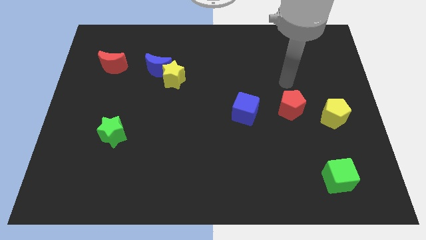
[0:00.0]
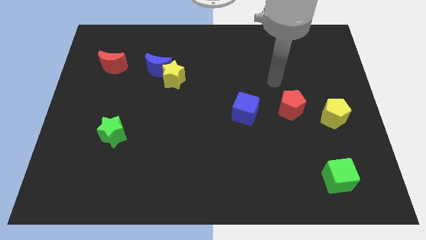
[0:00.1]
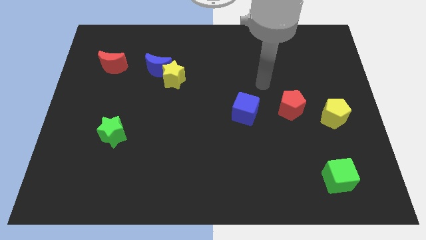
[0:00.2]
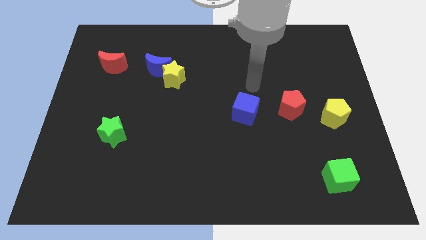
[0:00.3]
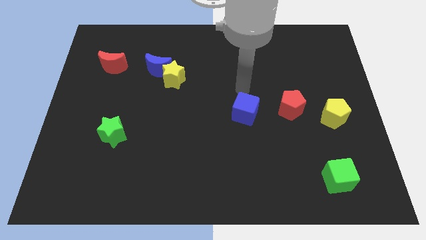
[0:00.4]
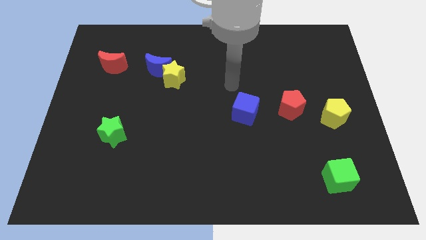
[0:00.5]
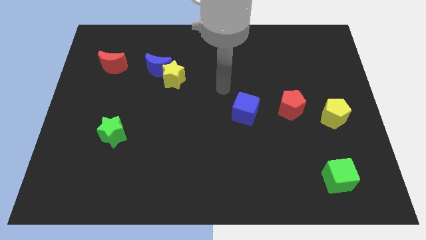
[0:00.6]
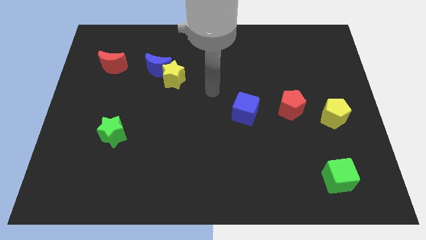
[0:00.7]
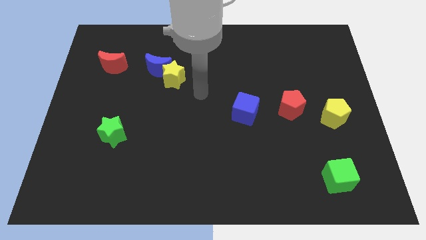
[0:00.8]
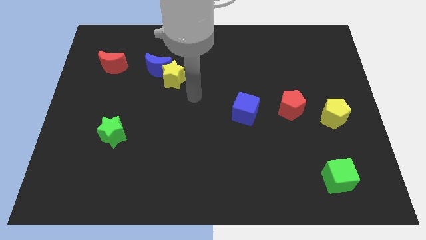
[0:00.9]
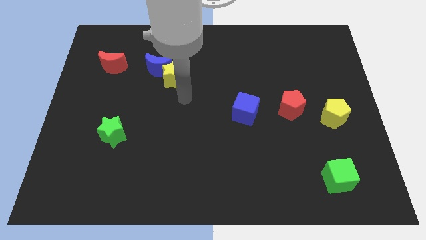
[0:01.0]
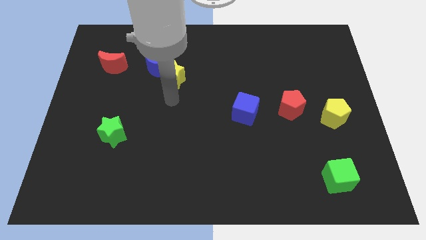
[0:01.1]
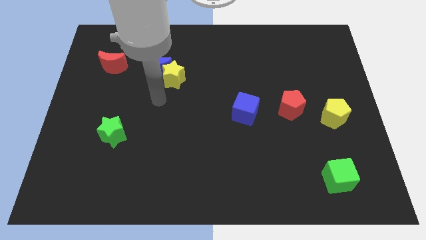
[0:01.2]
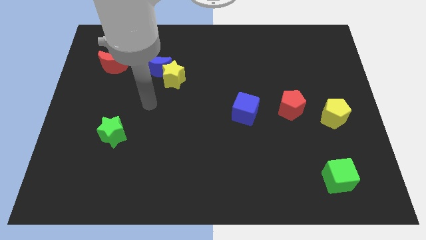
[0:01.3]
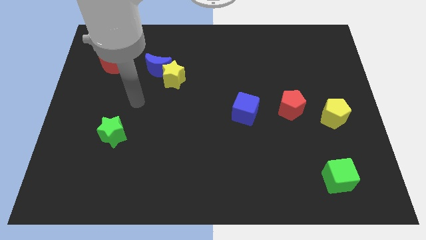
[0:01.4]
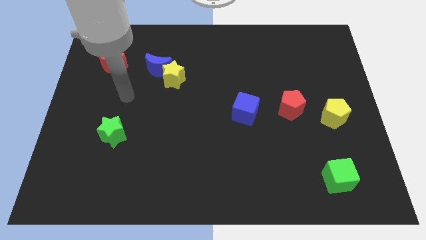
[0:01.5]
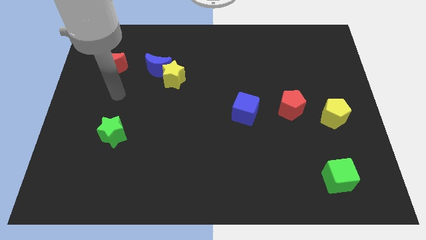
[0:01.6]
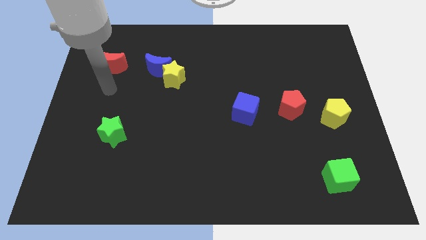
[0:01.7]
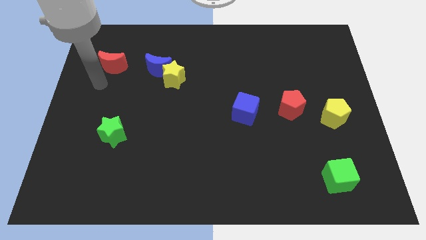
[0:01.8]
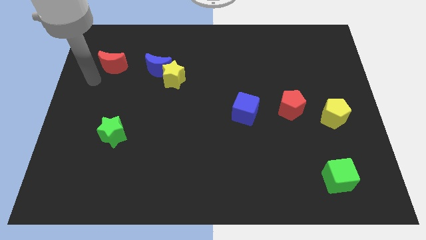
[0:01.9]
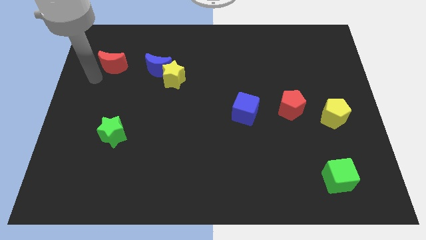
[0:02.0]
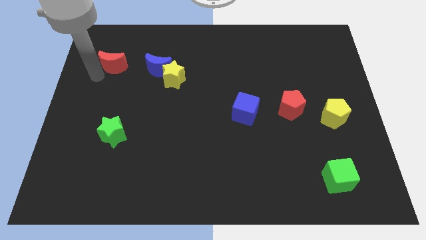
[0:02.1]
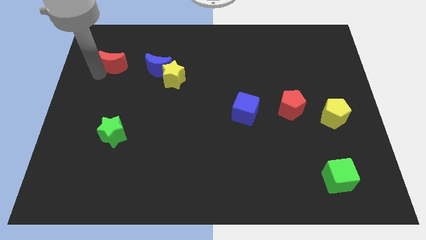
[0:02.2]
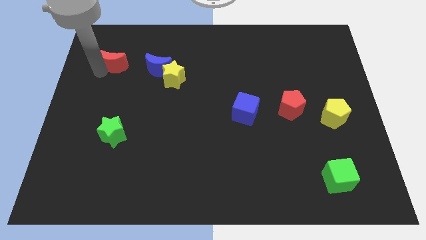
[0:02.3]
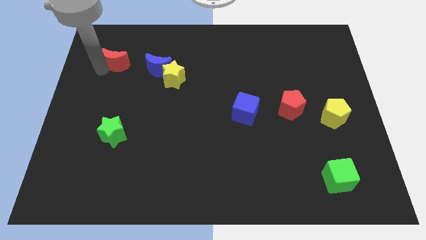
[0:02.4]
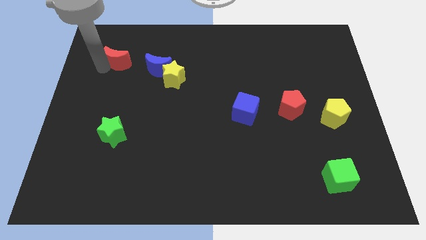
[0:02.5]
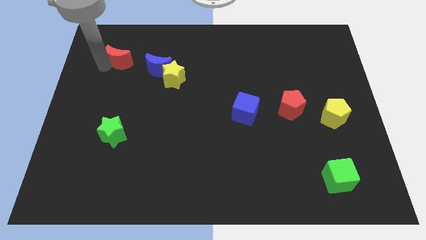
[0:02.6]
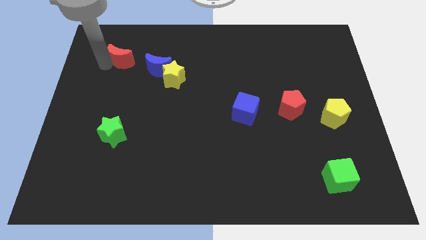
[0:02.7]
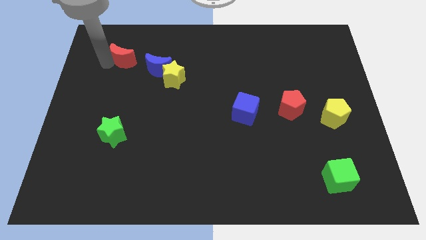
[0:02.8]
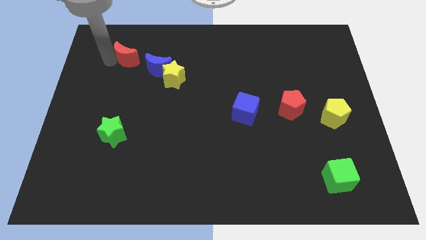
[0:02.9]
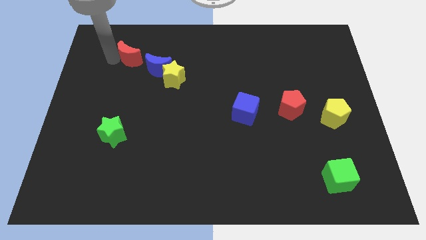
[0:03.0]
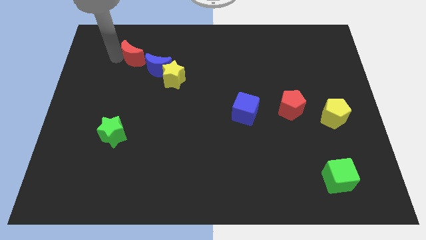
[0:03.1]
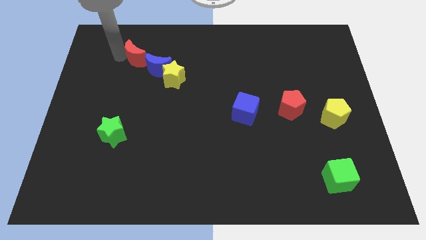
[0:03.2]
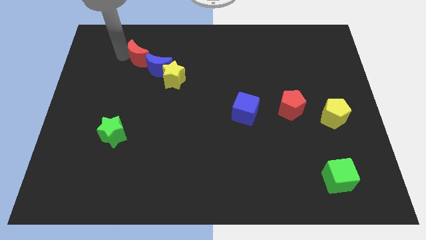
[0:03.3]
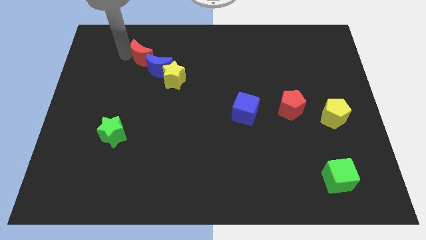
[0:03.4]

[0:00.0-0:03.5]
push the red moon a little to the right

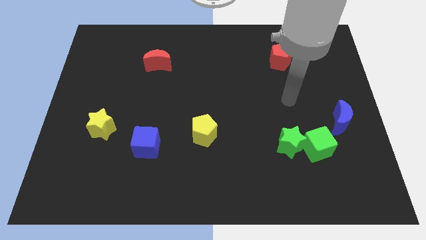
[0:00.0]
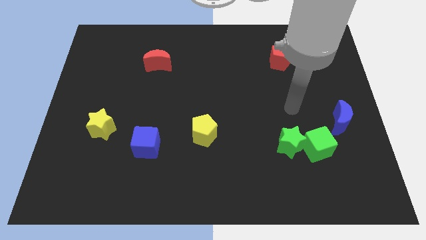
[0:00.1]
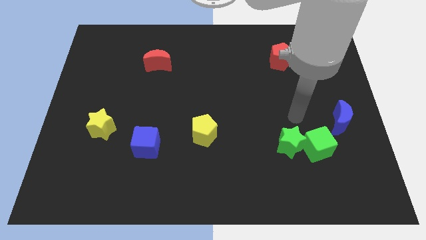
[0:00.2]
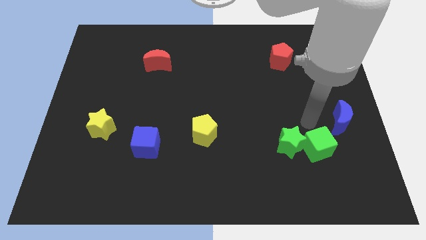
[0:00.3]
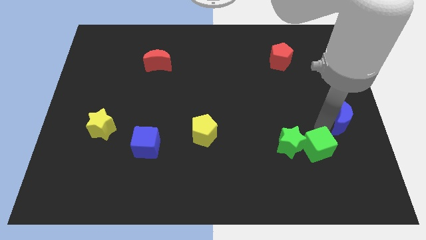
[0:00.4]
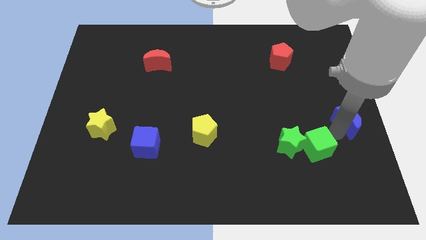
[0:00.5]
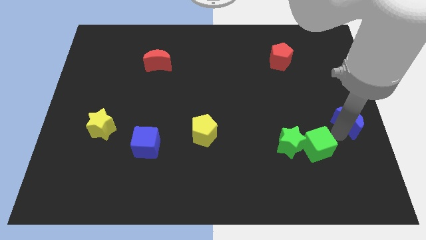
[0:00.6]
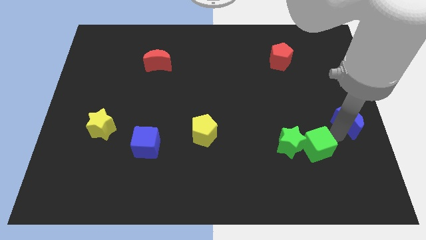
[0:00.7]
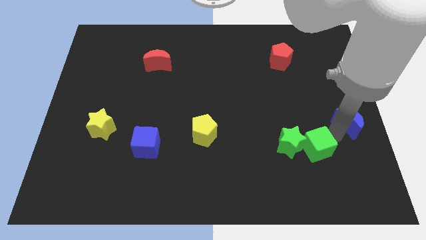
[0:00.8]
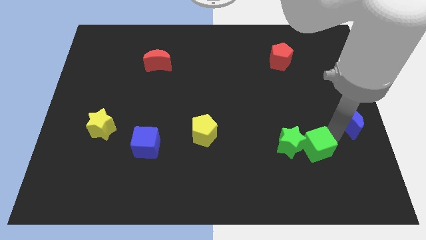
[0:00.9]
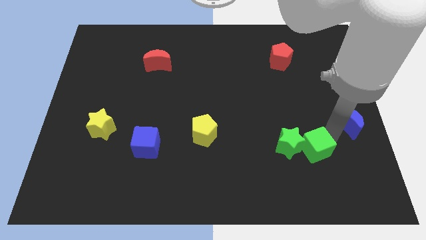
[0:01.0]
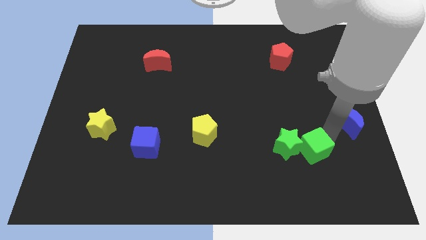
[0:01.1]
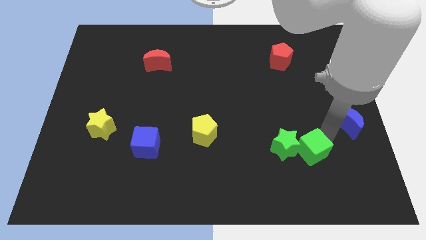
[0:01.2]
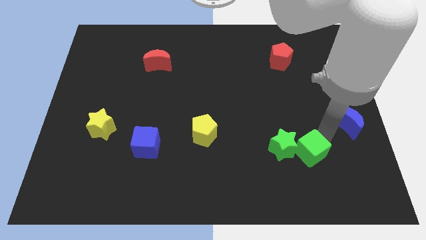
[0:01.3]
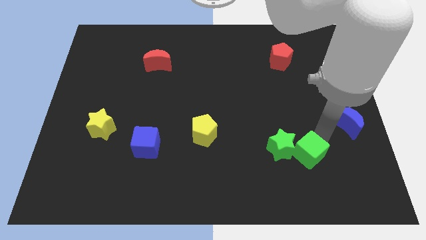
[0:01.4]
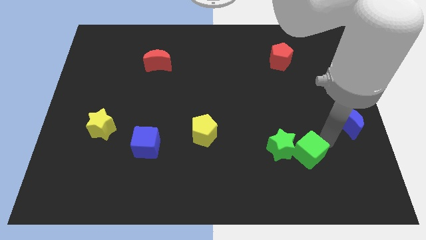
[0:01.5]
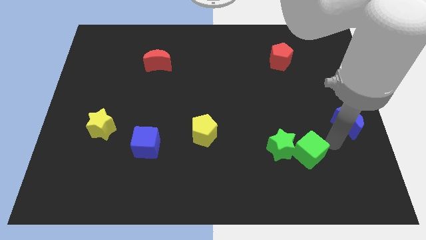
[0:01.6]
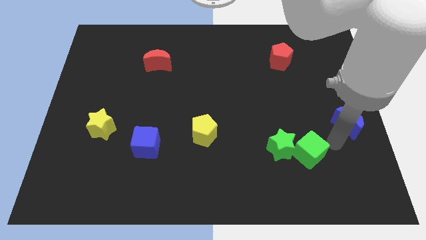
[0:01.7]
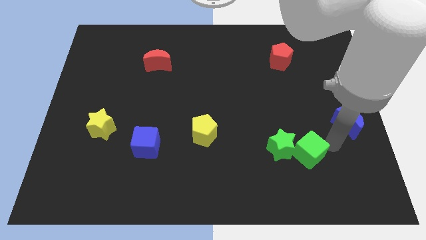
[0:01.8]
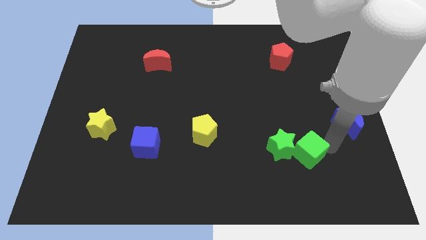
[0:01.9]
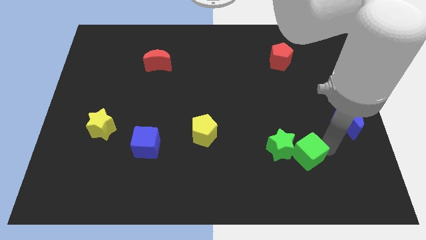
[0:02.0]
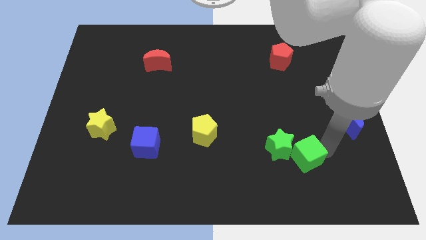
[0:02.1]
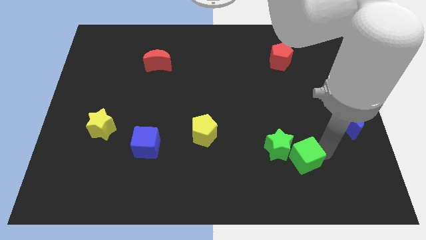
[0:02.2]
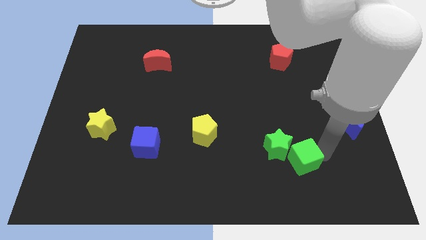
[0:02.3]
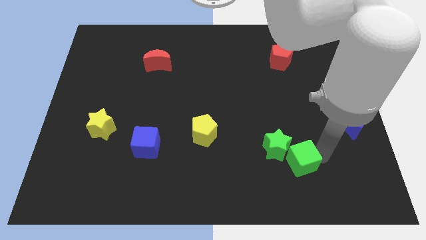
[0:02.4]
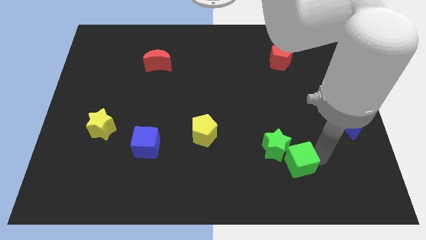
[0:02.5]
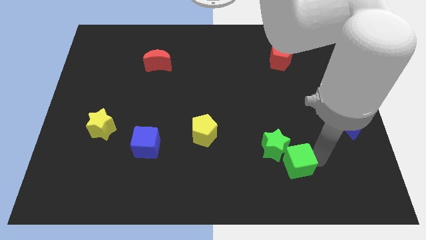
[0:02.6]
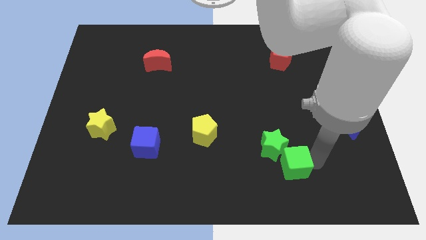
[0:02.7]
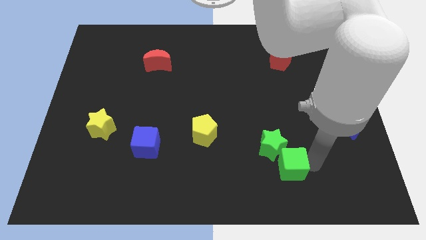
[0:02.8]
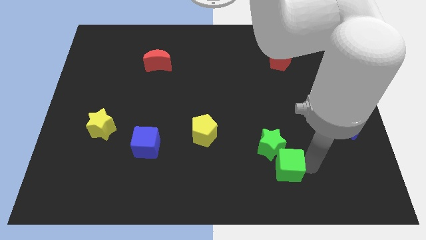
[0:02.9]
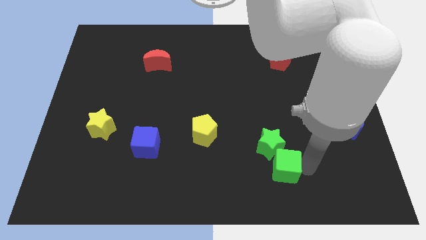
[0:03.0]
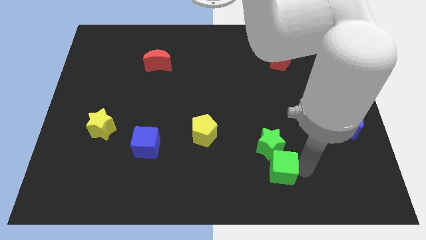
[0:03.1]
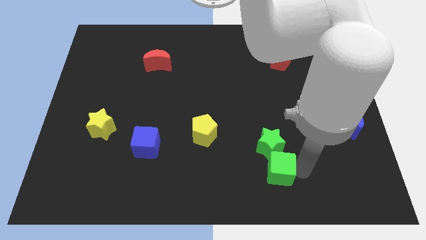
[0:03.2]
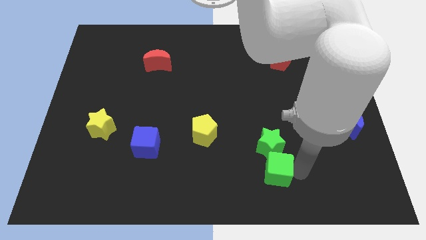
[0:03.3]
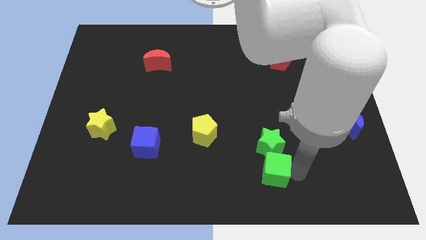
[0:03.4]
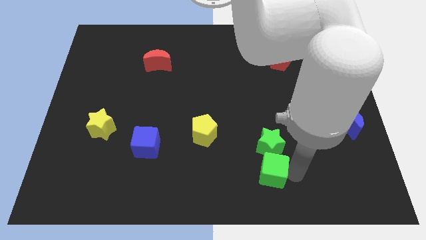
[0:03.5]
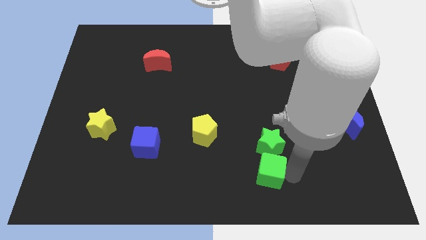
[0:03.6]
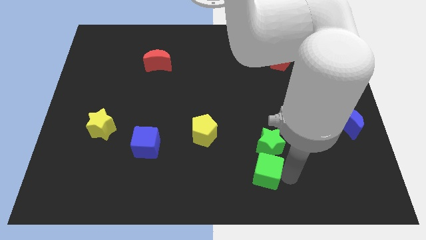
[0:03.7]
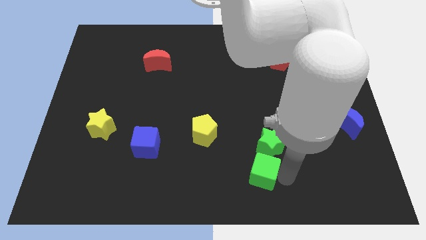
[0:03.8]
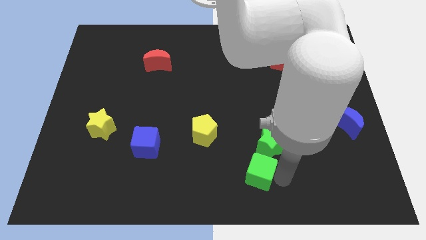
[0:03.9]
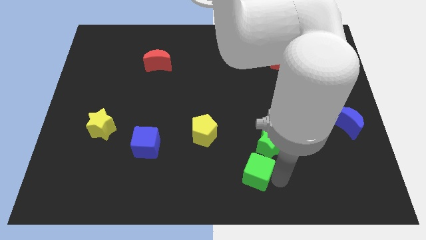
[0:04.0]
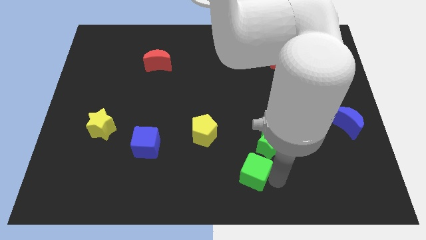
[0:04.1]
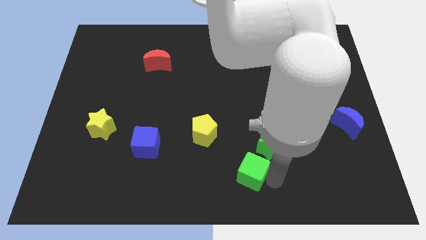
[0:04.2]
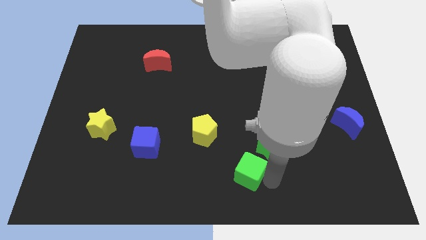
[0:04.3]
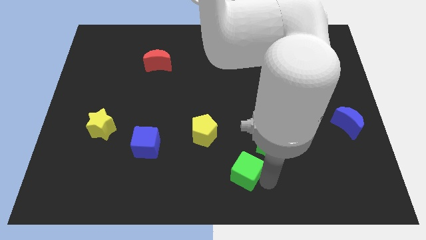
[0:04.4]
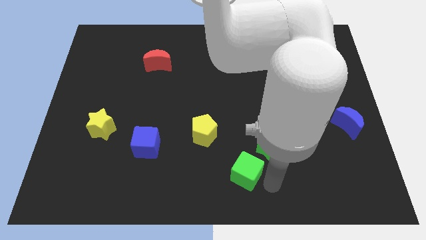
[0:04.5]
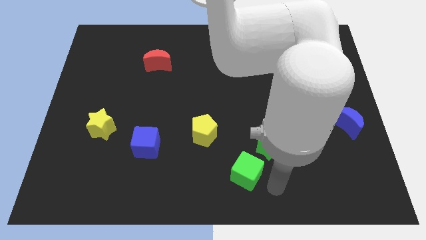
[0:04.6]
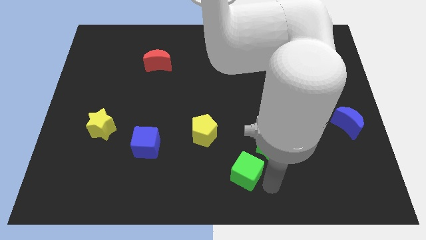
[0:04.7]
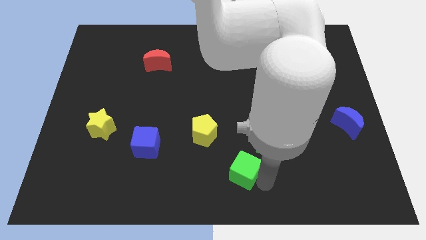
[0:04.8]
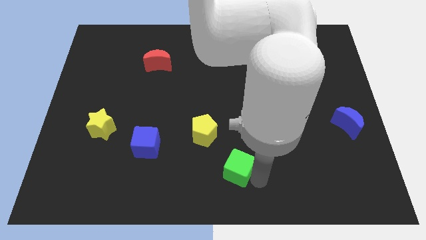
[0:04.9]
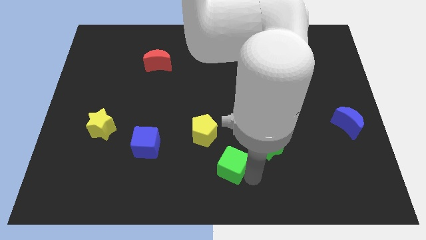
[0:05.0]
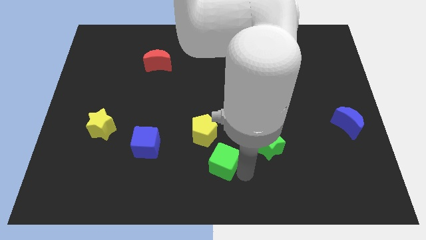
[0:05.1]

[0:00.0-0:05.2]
push the green cube to the left
